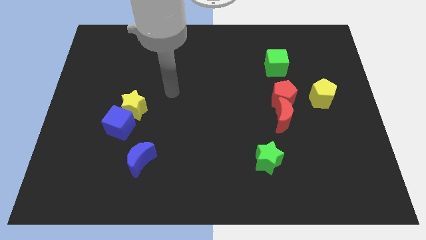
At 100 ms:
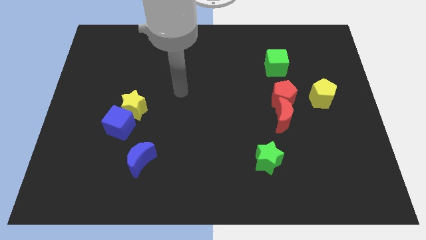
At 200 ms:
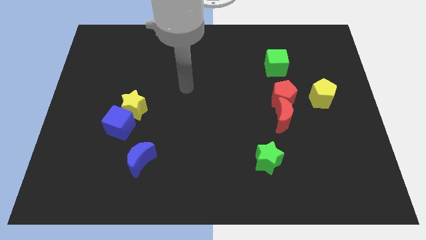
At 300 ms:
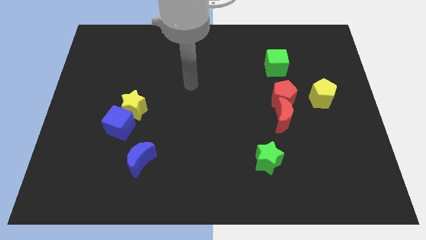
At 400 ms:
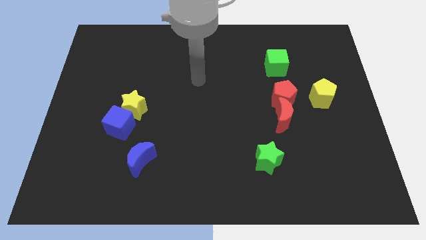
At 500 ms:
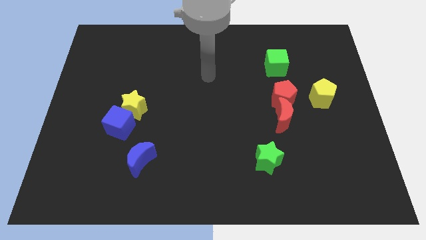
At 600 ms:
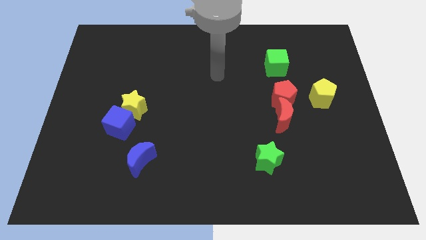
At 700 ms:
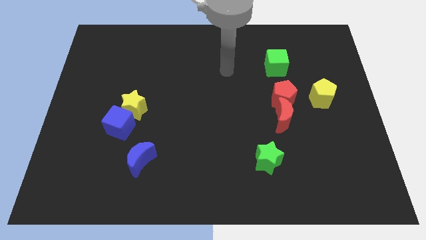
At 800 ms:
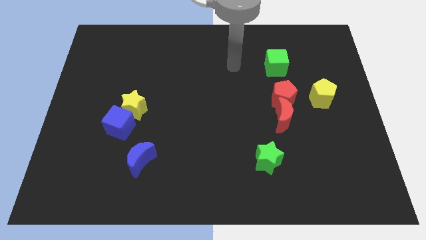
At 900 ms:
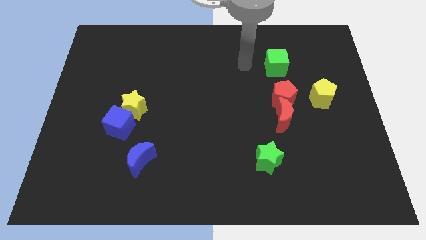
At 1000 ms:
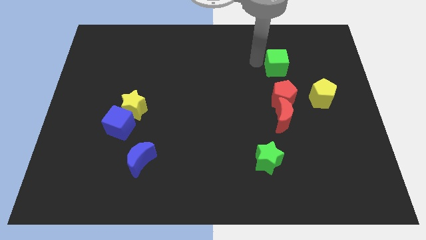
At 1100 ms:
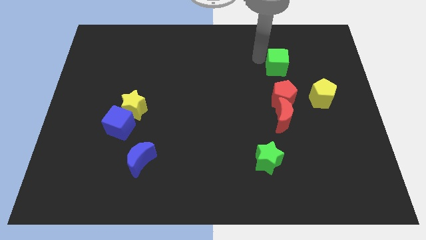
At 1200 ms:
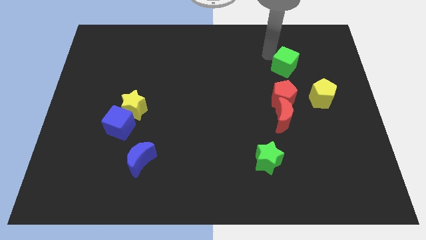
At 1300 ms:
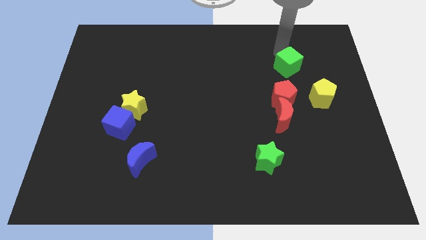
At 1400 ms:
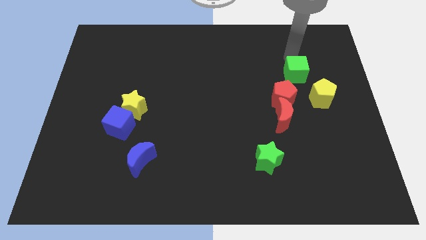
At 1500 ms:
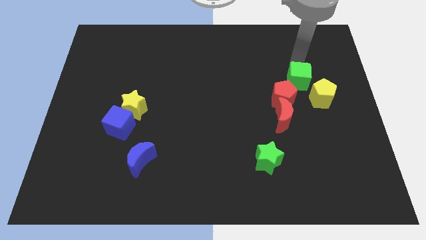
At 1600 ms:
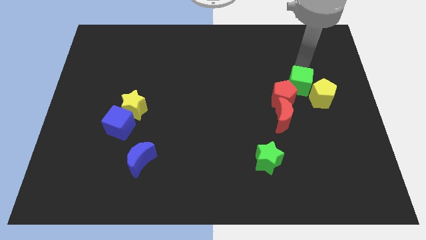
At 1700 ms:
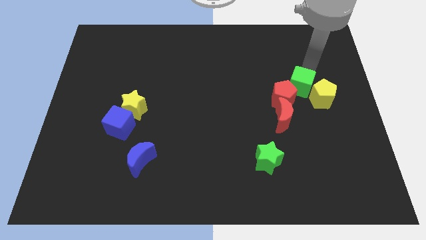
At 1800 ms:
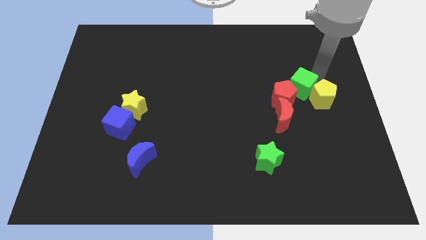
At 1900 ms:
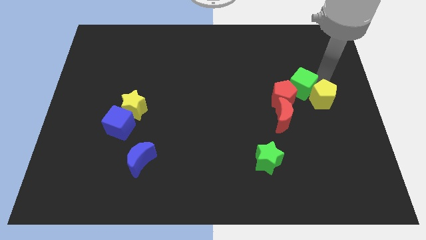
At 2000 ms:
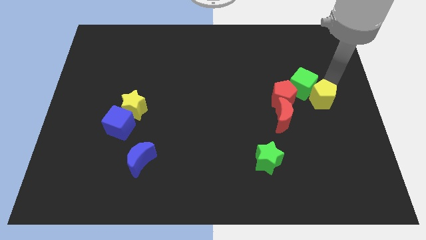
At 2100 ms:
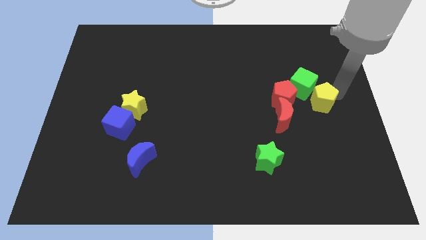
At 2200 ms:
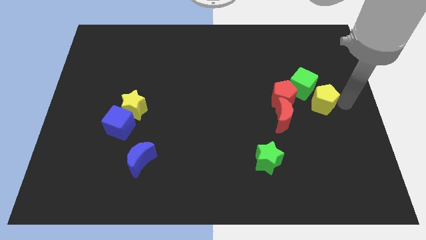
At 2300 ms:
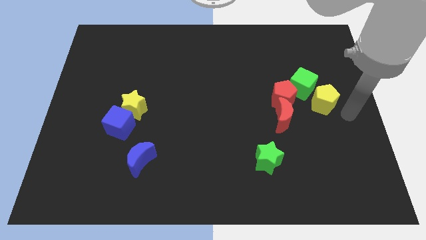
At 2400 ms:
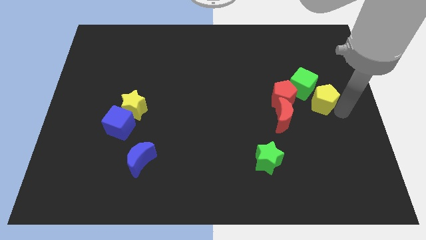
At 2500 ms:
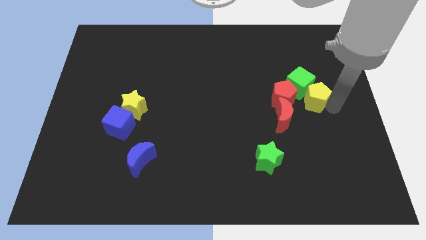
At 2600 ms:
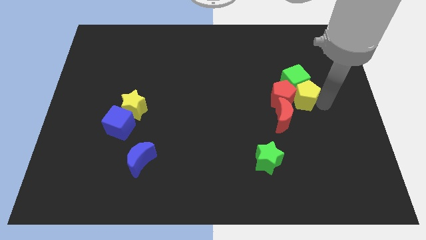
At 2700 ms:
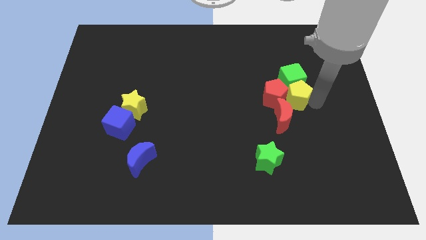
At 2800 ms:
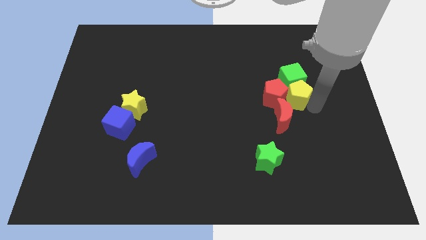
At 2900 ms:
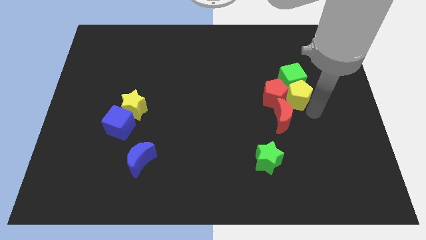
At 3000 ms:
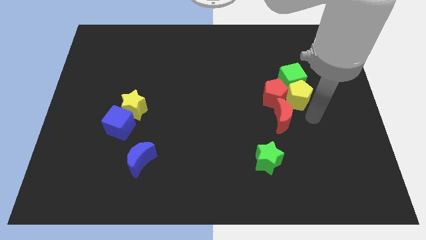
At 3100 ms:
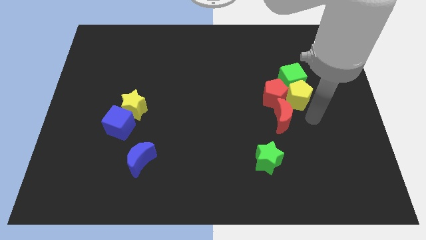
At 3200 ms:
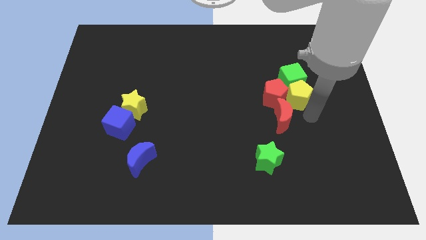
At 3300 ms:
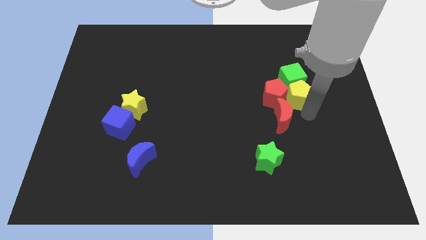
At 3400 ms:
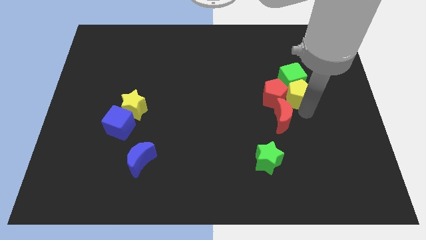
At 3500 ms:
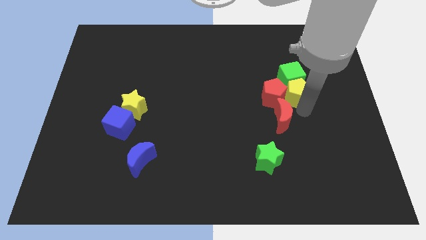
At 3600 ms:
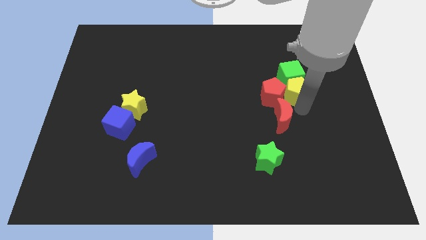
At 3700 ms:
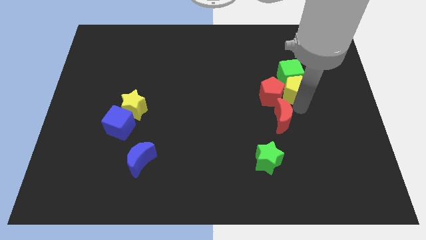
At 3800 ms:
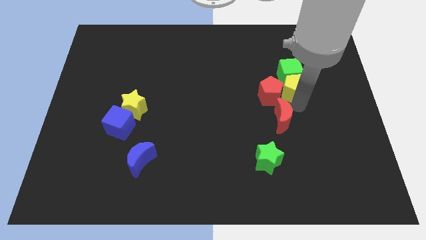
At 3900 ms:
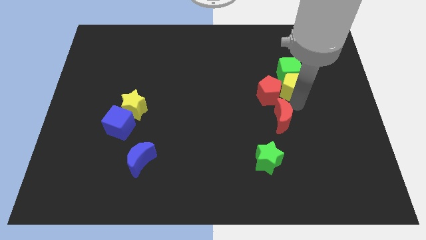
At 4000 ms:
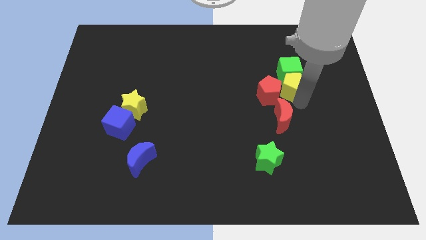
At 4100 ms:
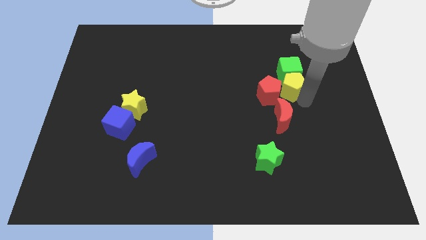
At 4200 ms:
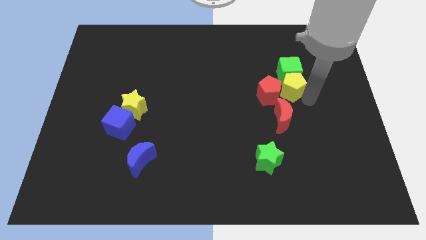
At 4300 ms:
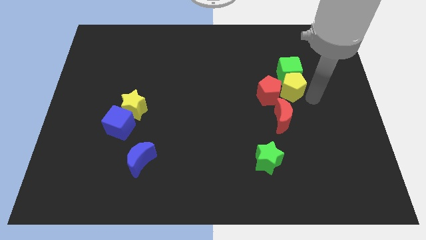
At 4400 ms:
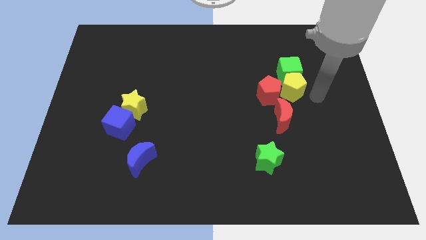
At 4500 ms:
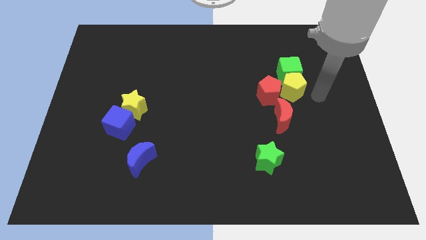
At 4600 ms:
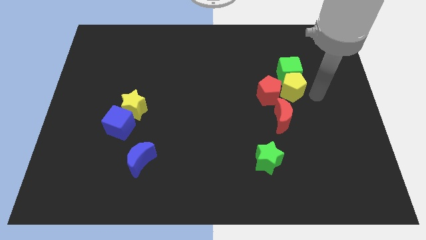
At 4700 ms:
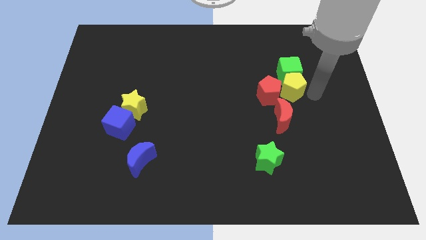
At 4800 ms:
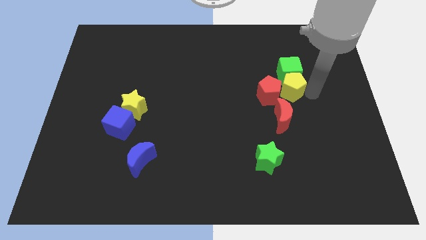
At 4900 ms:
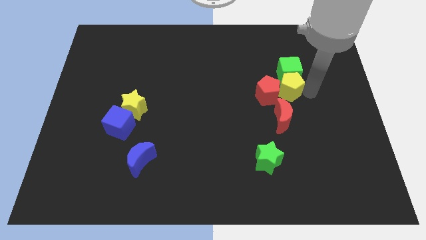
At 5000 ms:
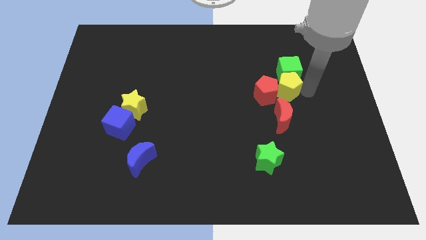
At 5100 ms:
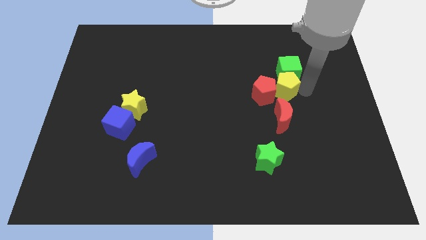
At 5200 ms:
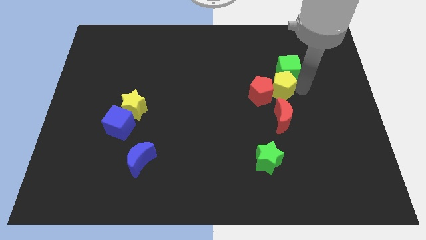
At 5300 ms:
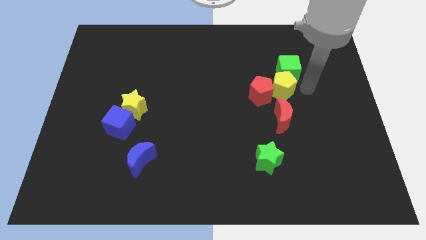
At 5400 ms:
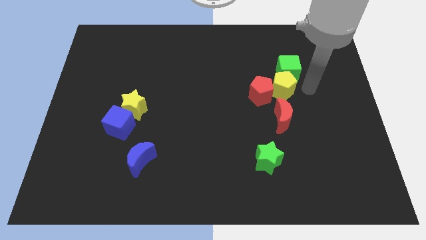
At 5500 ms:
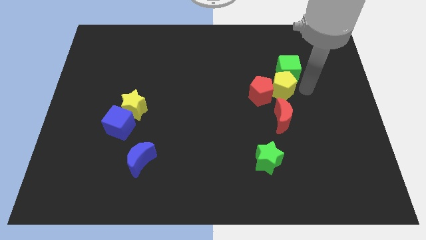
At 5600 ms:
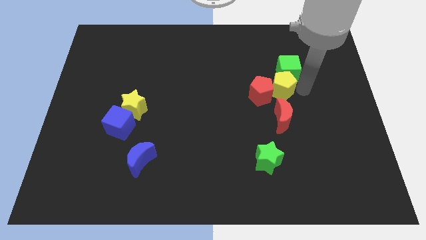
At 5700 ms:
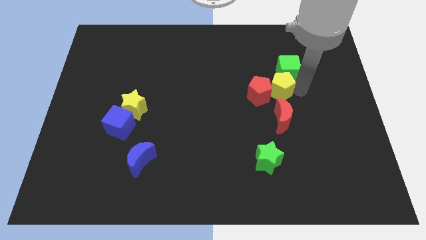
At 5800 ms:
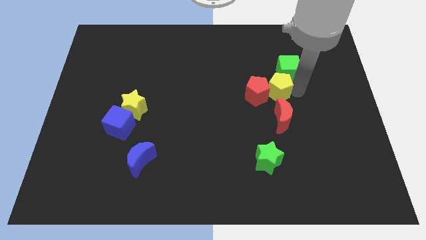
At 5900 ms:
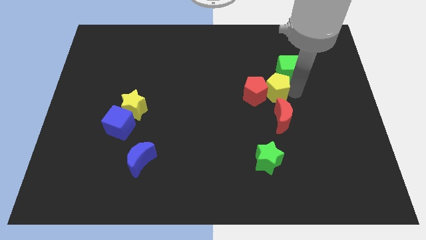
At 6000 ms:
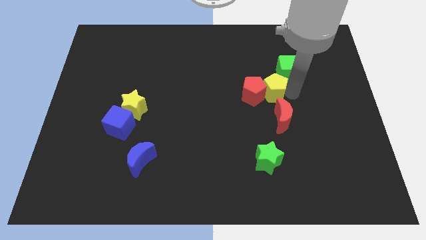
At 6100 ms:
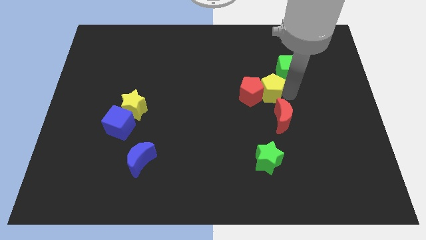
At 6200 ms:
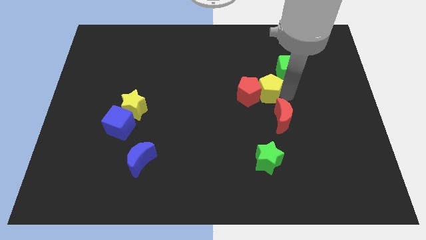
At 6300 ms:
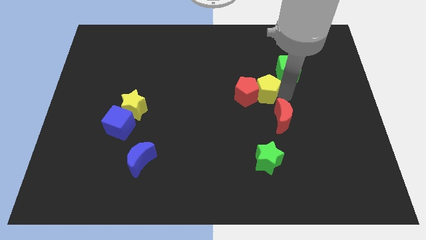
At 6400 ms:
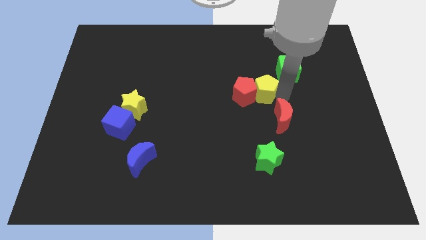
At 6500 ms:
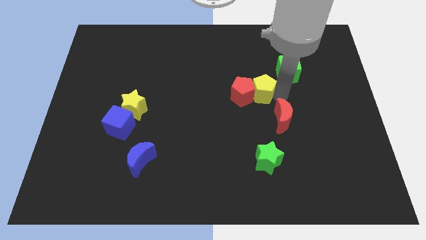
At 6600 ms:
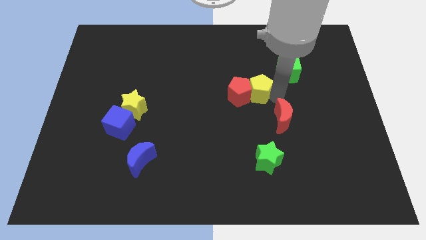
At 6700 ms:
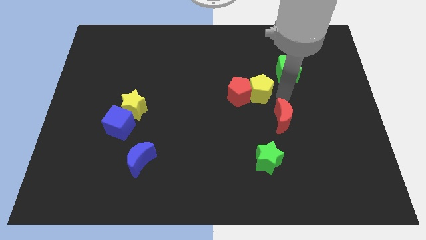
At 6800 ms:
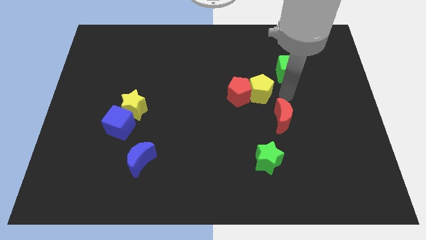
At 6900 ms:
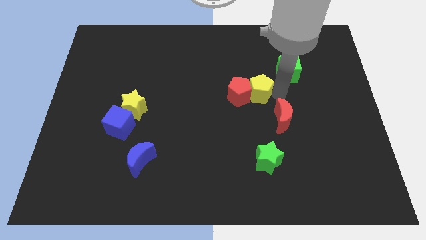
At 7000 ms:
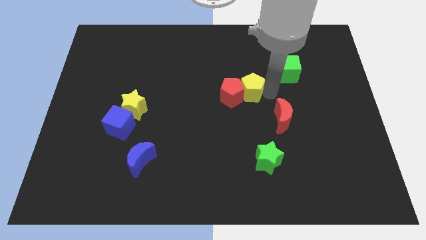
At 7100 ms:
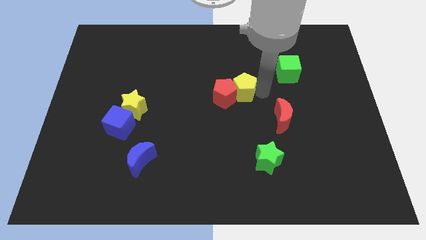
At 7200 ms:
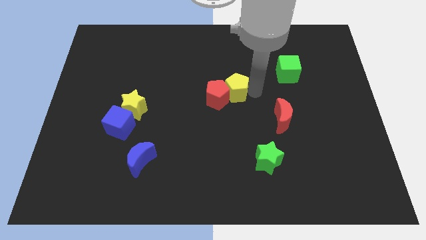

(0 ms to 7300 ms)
slide the yellow pentagon to the left

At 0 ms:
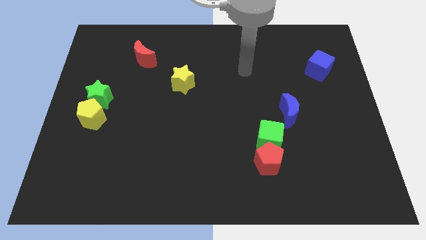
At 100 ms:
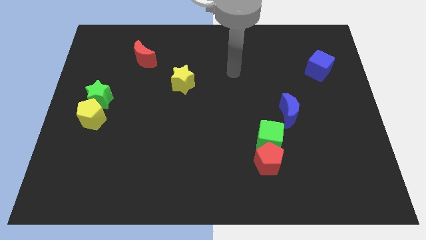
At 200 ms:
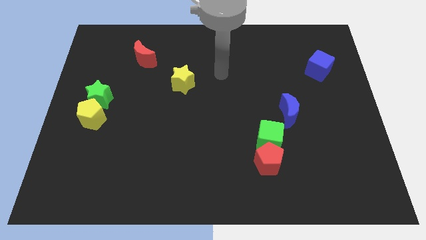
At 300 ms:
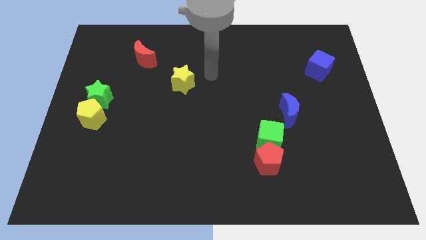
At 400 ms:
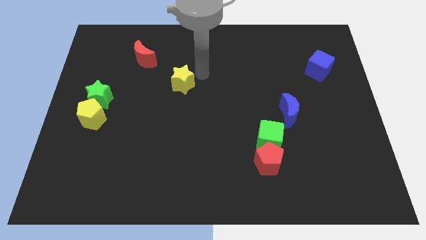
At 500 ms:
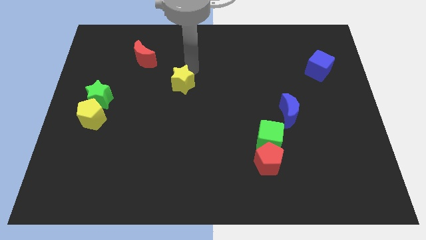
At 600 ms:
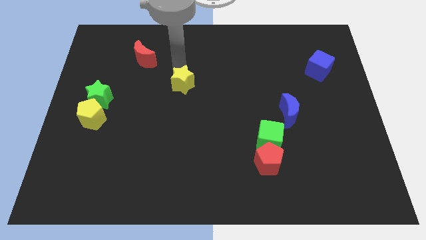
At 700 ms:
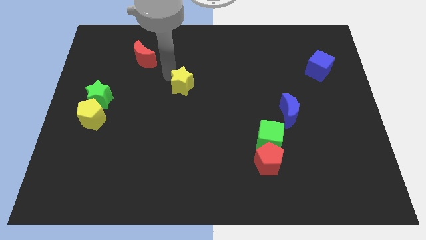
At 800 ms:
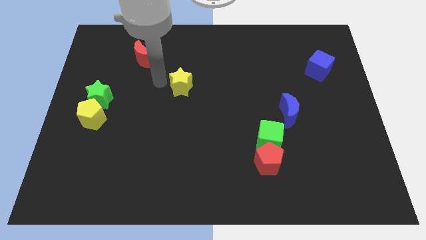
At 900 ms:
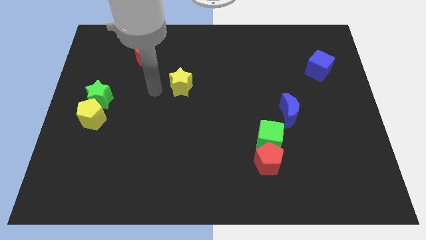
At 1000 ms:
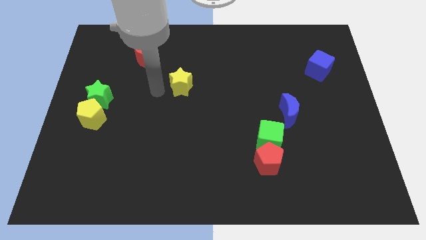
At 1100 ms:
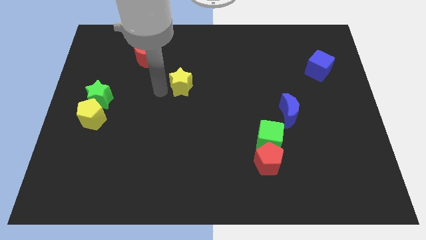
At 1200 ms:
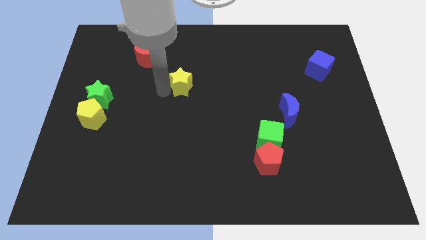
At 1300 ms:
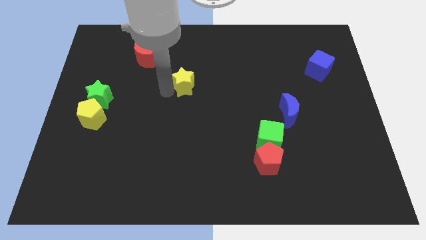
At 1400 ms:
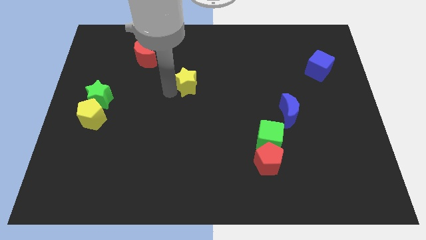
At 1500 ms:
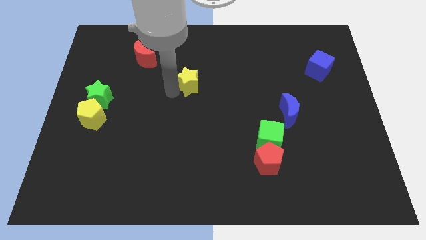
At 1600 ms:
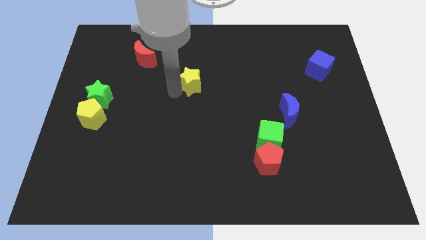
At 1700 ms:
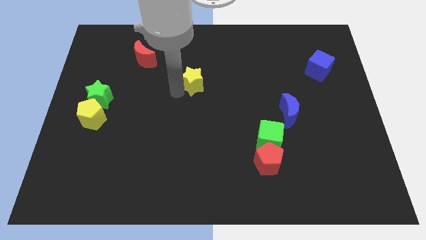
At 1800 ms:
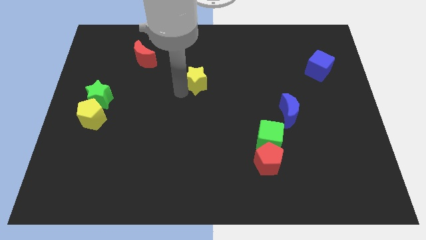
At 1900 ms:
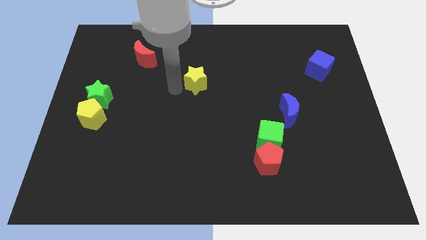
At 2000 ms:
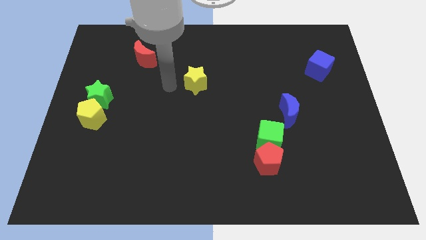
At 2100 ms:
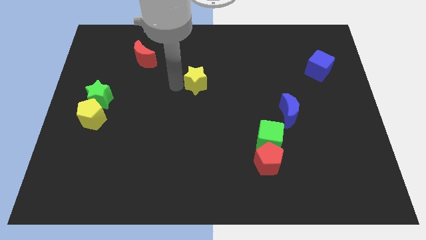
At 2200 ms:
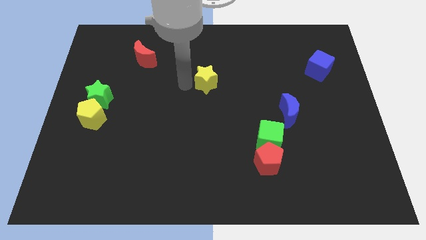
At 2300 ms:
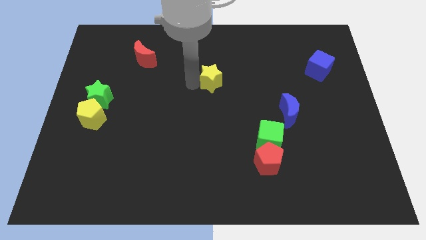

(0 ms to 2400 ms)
move the yellow star a little right
